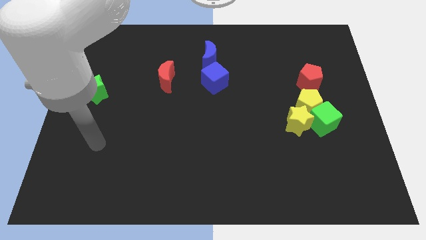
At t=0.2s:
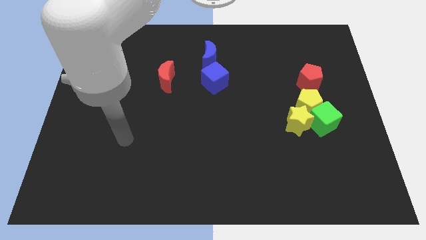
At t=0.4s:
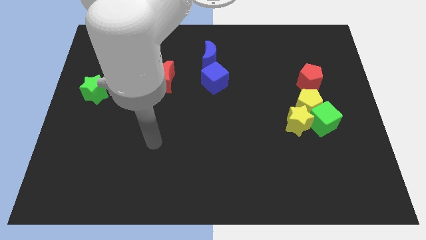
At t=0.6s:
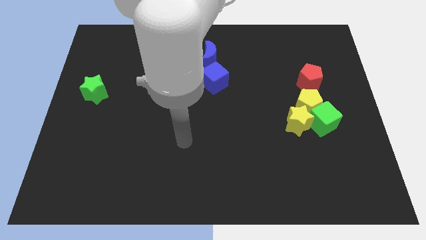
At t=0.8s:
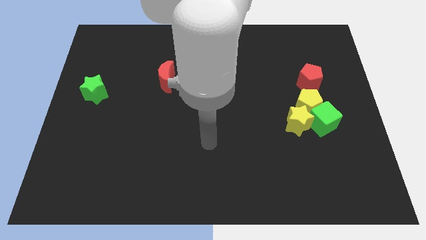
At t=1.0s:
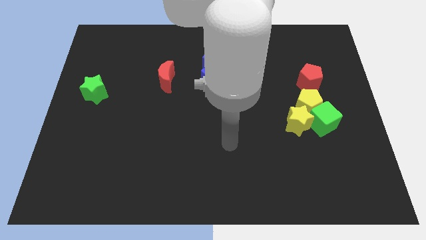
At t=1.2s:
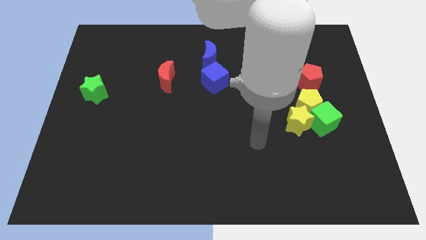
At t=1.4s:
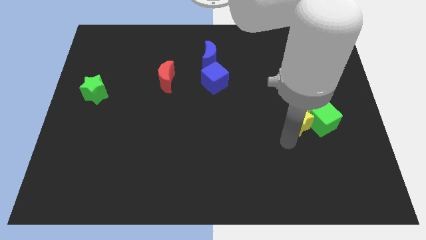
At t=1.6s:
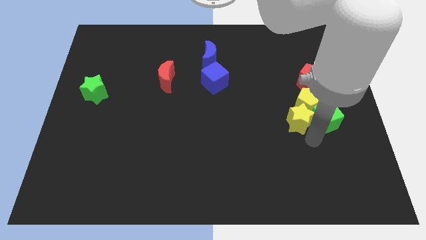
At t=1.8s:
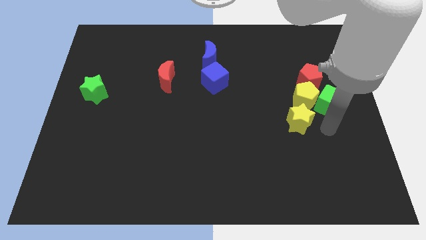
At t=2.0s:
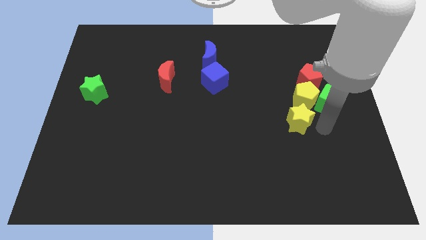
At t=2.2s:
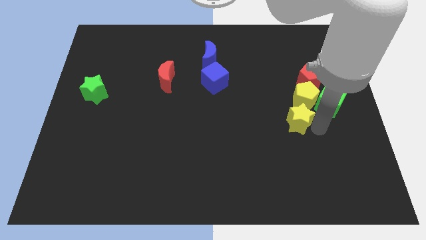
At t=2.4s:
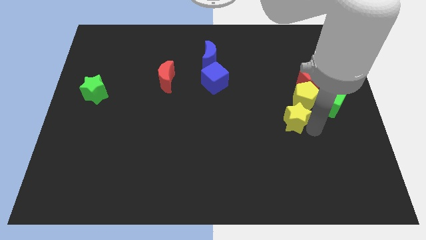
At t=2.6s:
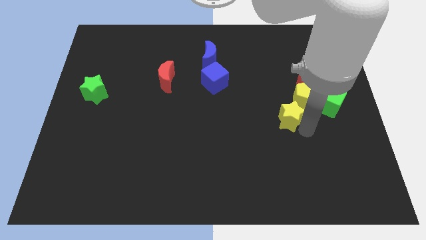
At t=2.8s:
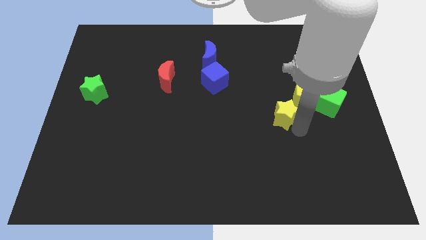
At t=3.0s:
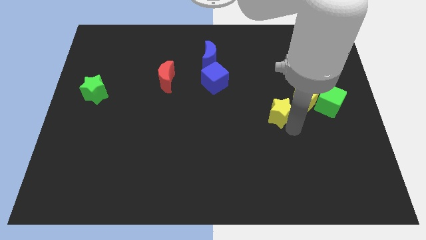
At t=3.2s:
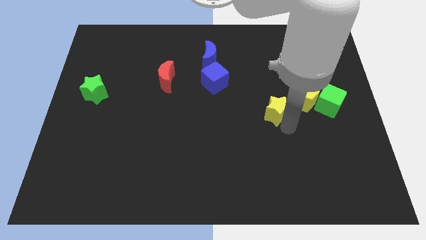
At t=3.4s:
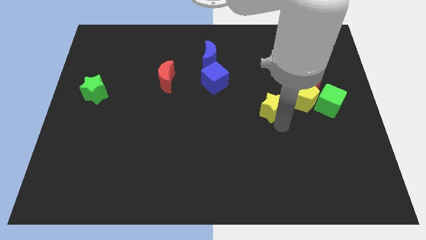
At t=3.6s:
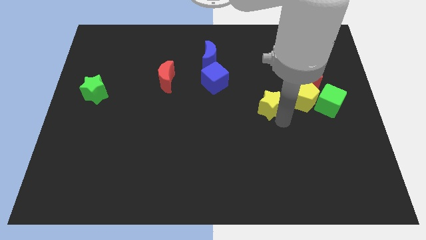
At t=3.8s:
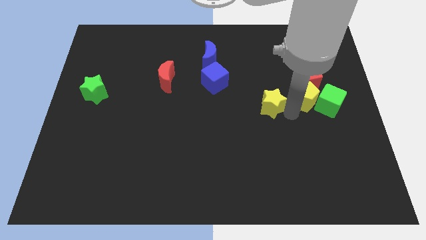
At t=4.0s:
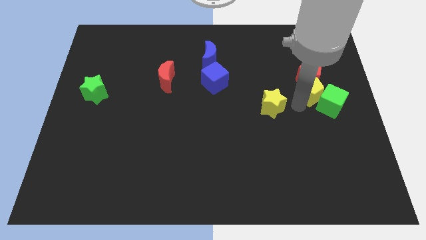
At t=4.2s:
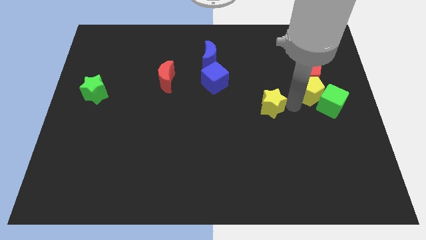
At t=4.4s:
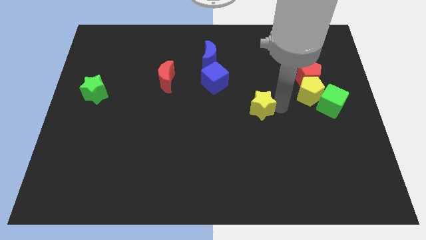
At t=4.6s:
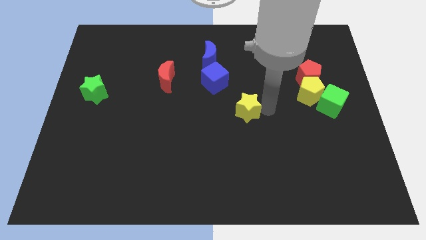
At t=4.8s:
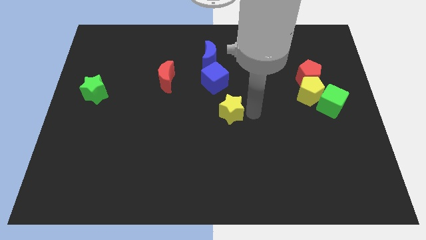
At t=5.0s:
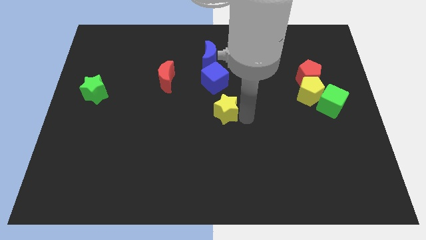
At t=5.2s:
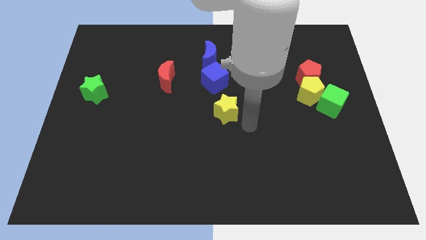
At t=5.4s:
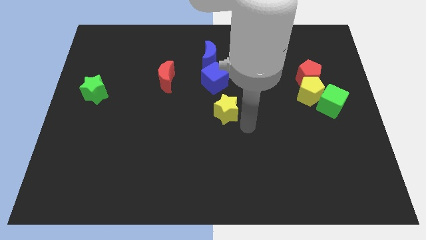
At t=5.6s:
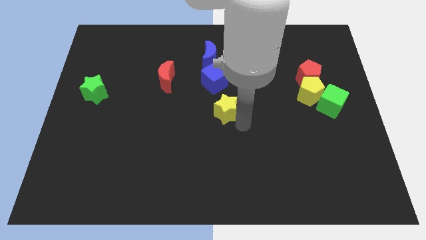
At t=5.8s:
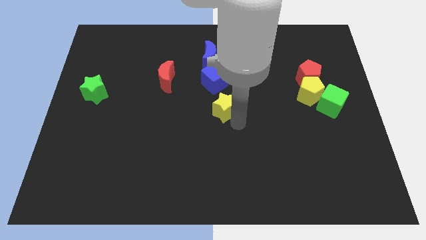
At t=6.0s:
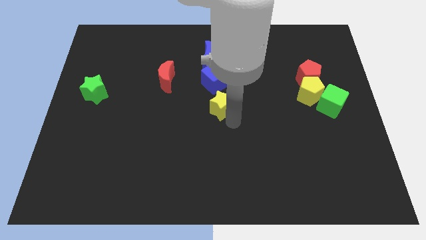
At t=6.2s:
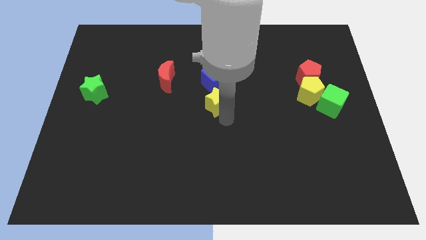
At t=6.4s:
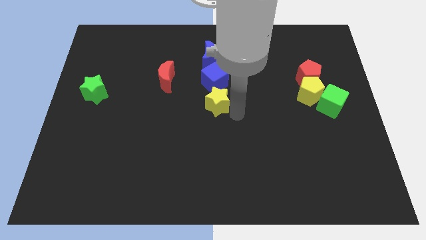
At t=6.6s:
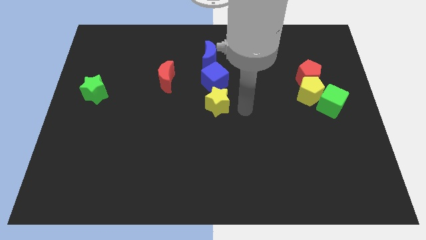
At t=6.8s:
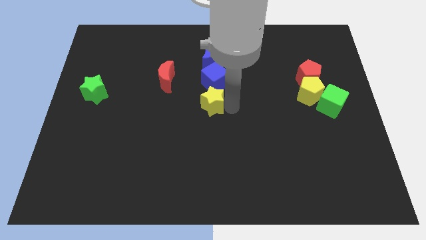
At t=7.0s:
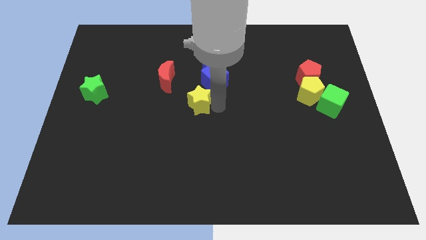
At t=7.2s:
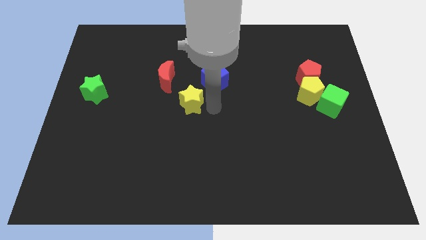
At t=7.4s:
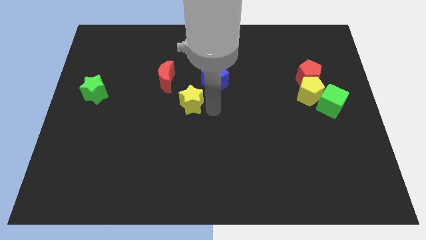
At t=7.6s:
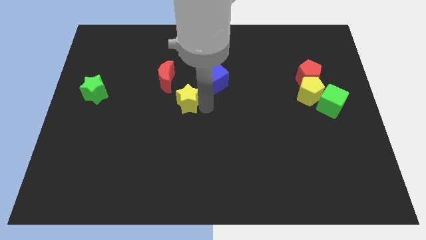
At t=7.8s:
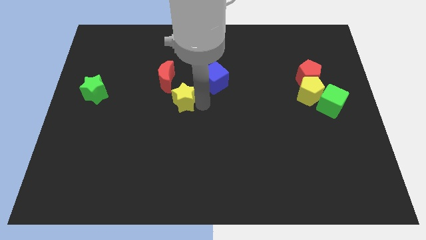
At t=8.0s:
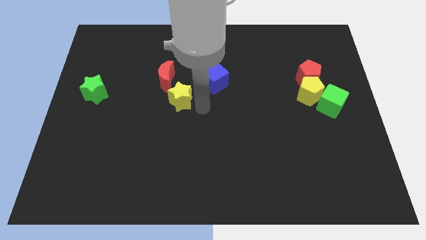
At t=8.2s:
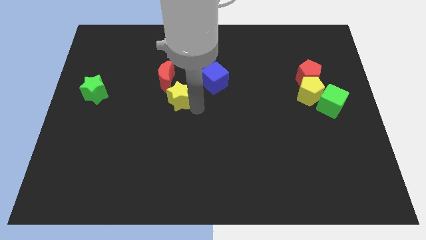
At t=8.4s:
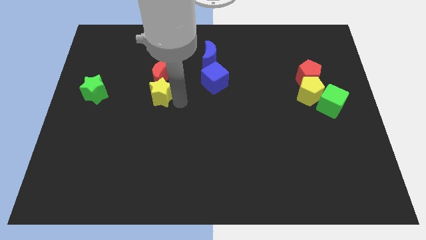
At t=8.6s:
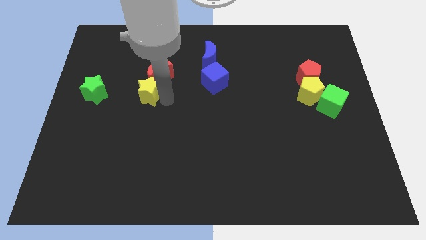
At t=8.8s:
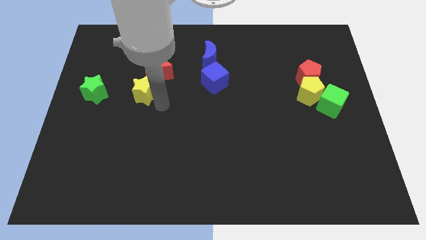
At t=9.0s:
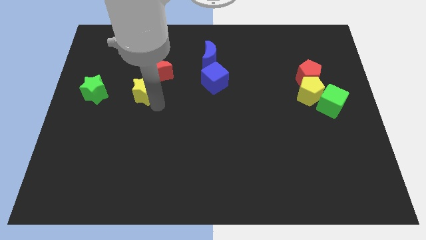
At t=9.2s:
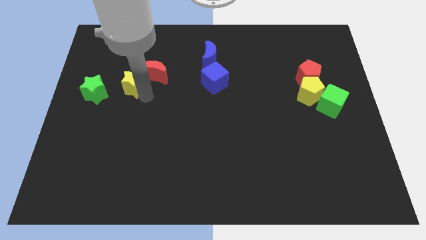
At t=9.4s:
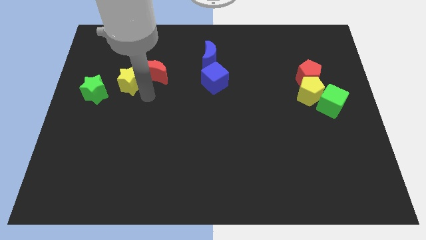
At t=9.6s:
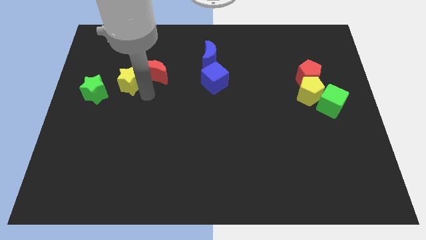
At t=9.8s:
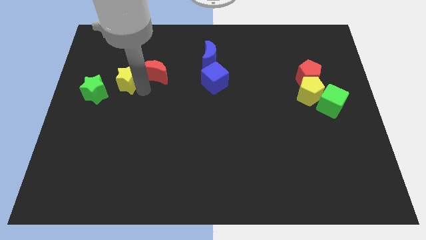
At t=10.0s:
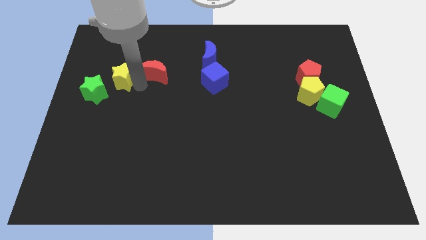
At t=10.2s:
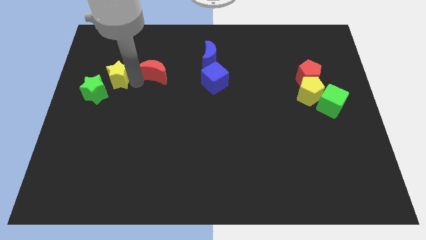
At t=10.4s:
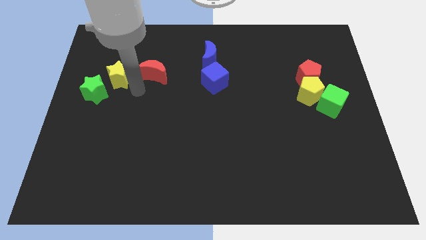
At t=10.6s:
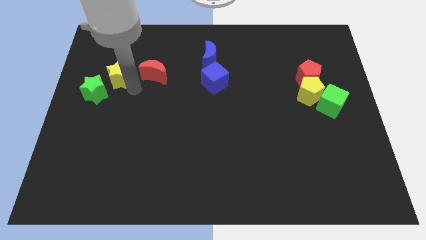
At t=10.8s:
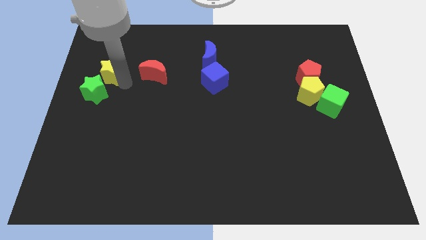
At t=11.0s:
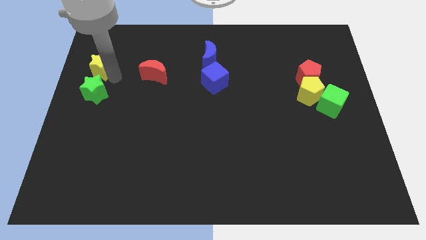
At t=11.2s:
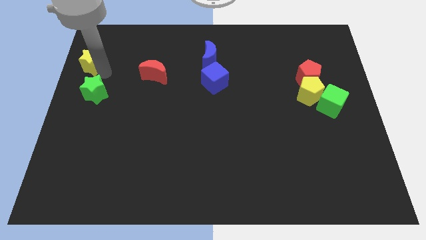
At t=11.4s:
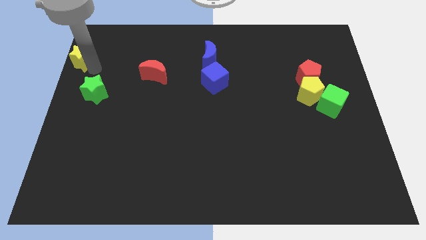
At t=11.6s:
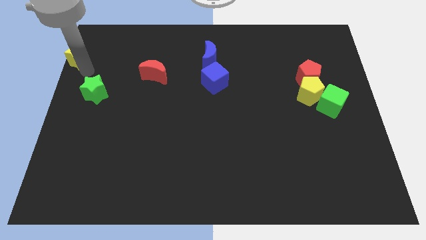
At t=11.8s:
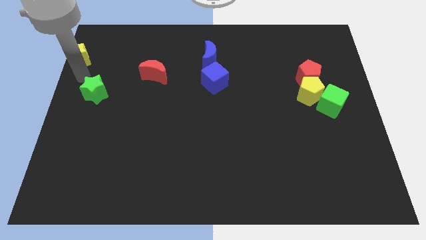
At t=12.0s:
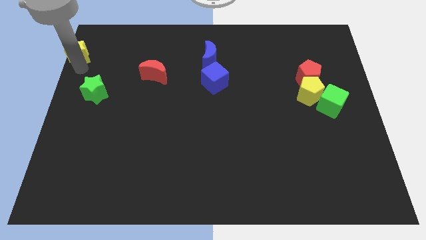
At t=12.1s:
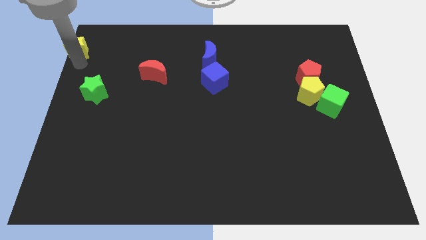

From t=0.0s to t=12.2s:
slide the yellow star to the top left of the board
